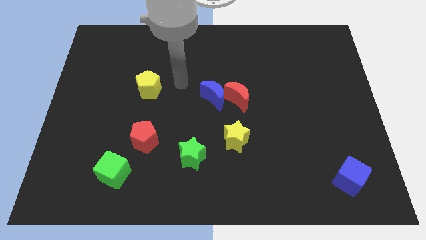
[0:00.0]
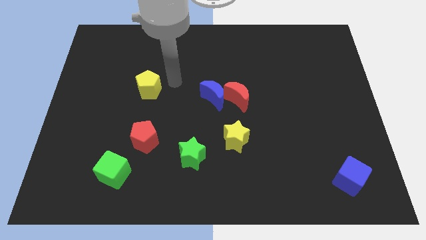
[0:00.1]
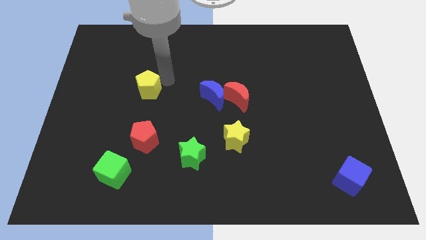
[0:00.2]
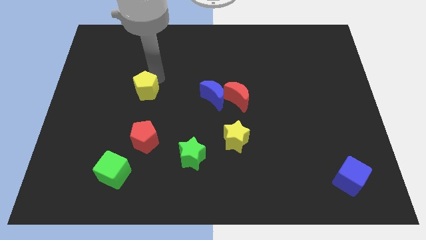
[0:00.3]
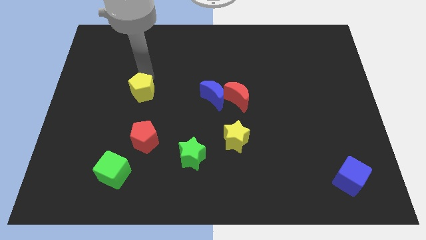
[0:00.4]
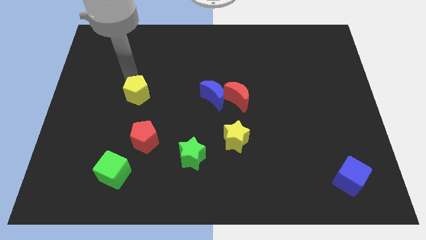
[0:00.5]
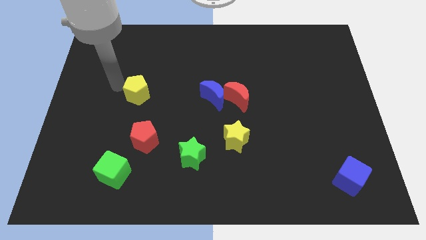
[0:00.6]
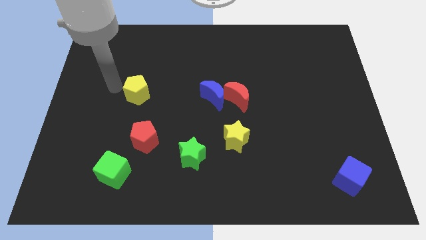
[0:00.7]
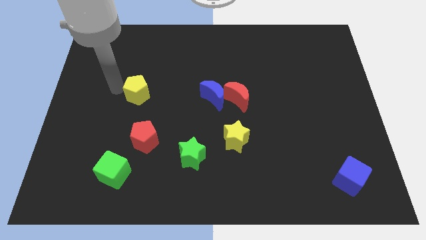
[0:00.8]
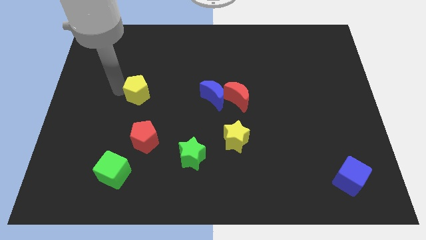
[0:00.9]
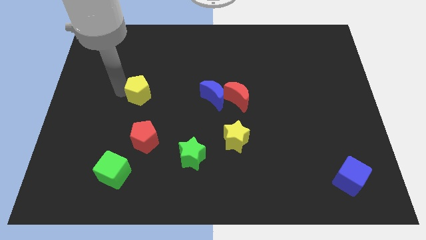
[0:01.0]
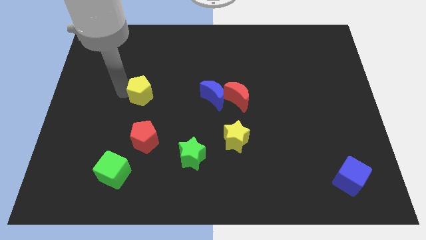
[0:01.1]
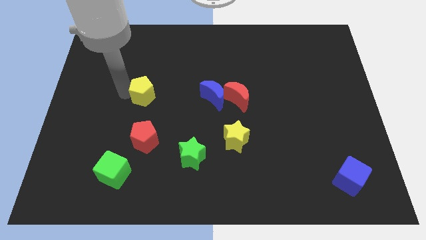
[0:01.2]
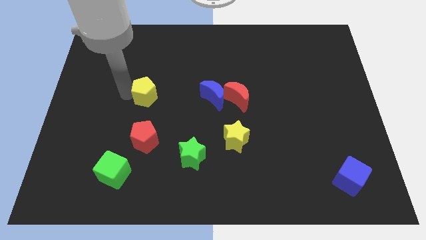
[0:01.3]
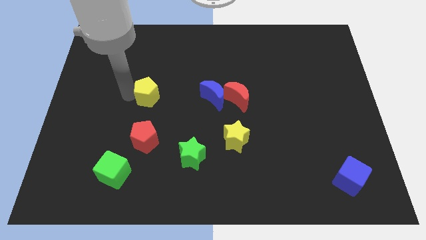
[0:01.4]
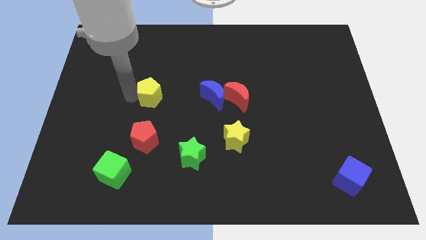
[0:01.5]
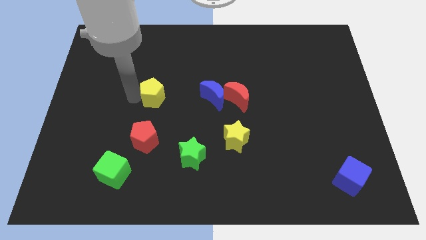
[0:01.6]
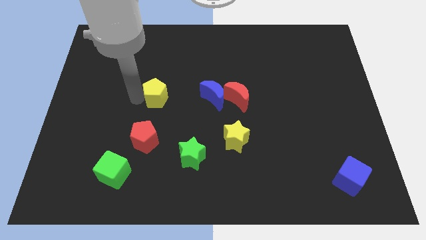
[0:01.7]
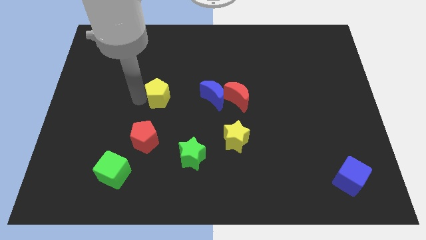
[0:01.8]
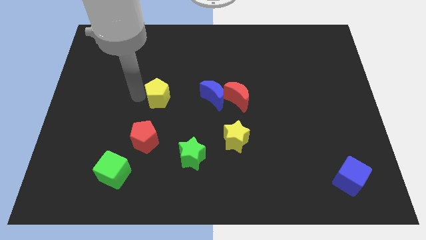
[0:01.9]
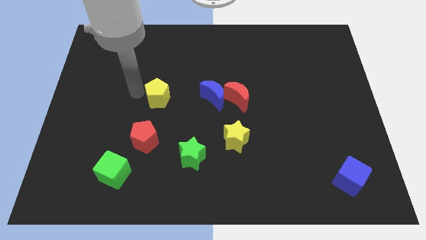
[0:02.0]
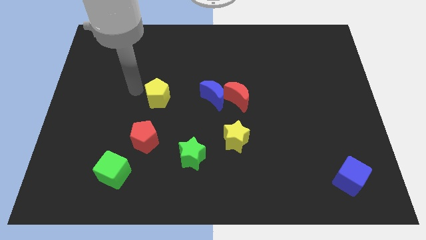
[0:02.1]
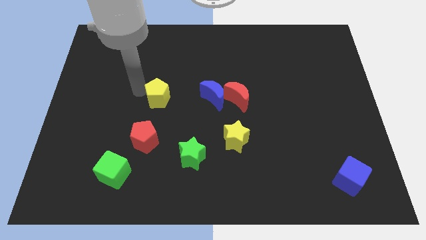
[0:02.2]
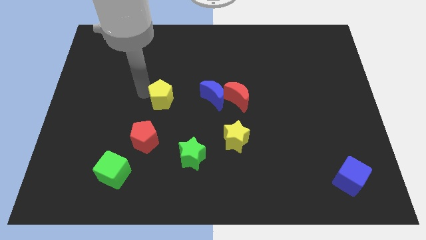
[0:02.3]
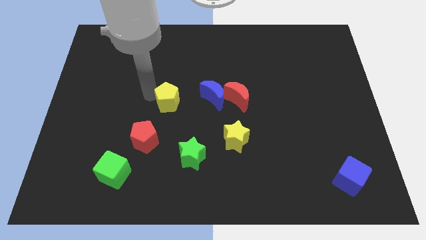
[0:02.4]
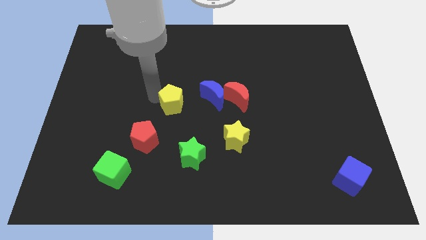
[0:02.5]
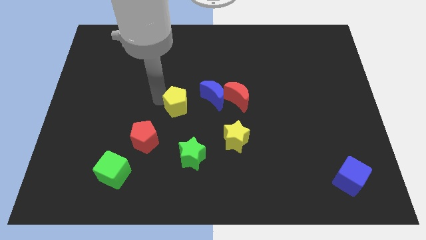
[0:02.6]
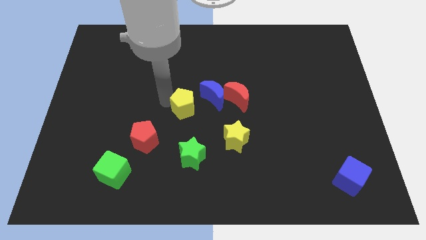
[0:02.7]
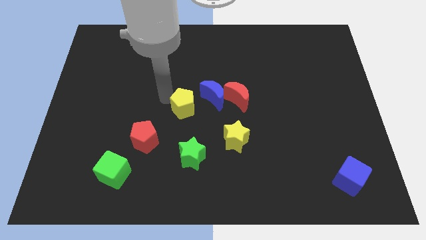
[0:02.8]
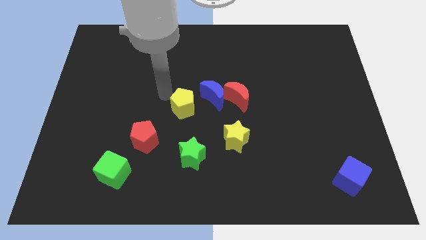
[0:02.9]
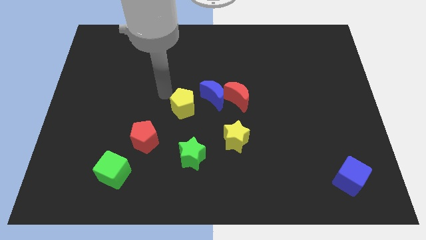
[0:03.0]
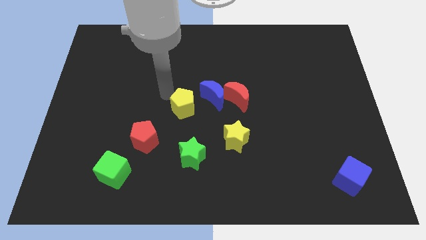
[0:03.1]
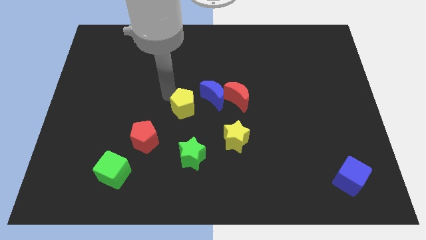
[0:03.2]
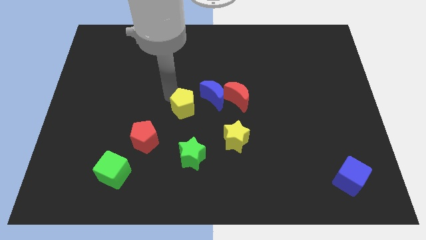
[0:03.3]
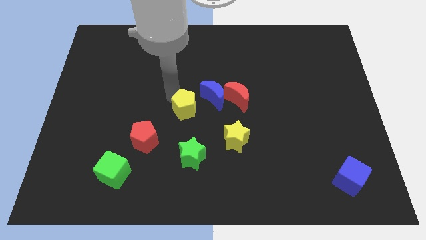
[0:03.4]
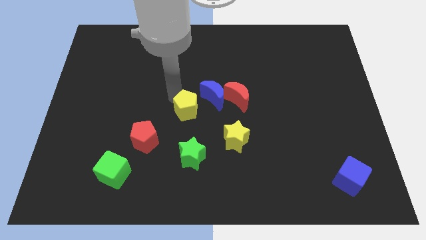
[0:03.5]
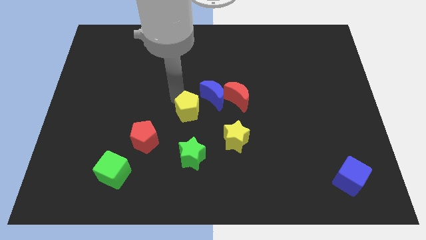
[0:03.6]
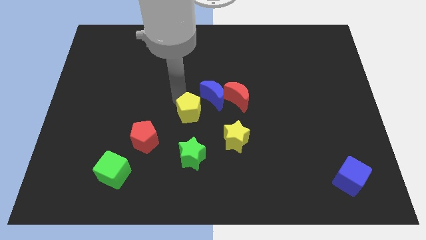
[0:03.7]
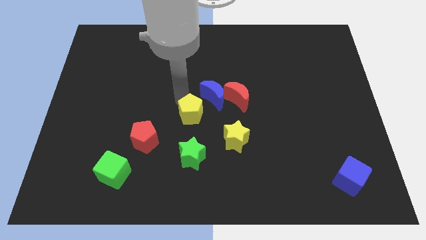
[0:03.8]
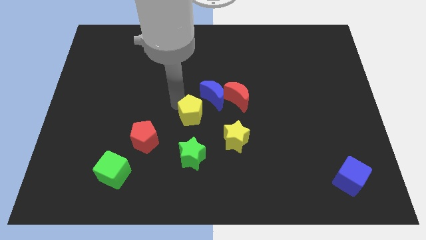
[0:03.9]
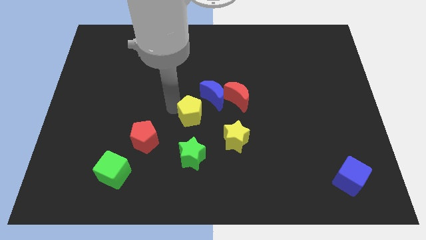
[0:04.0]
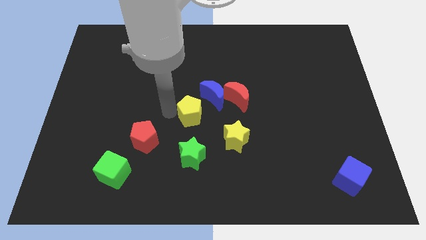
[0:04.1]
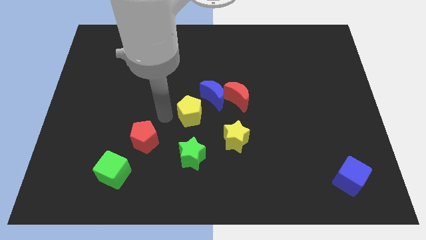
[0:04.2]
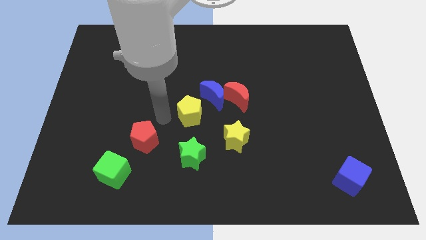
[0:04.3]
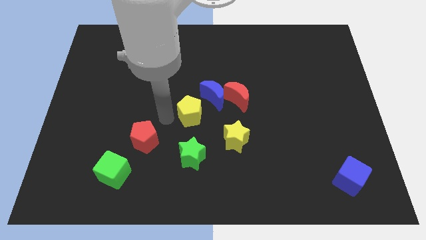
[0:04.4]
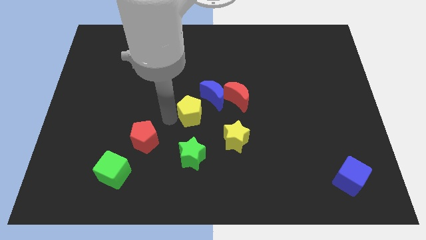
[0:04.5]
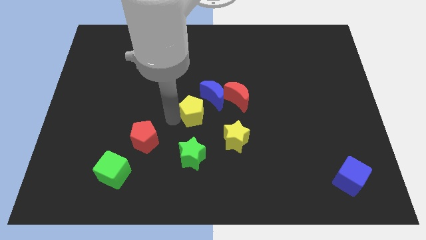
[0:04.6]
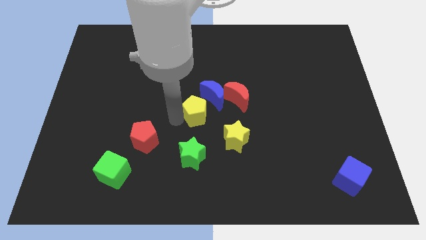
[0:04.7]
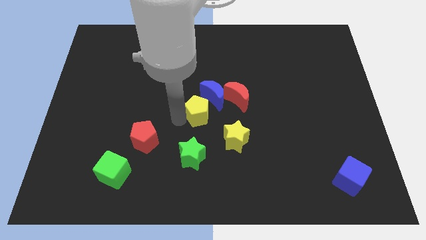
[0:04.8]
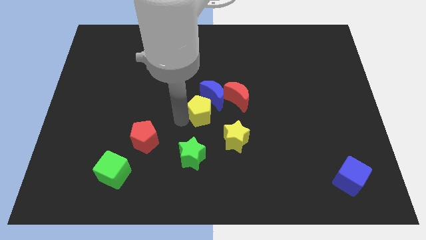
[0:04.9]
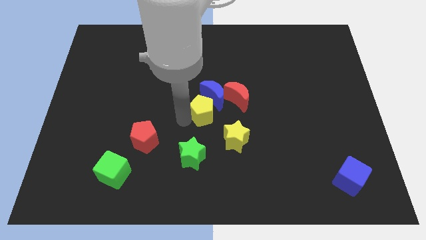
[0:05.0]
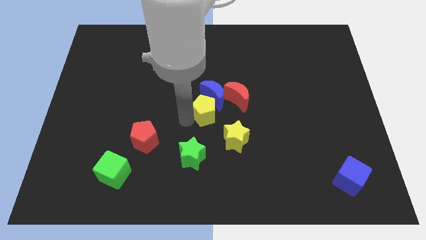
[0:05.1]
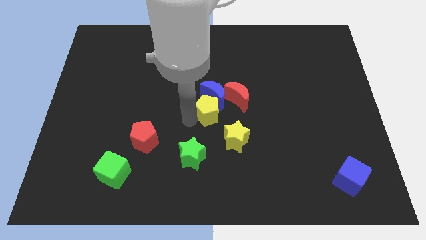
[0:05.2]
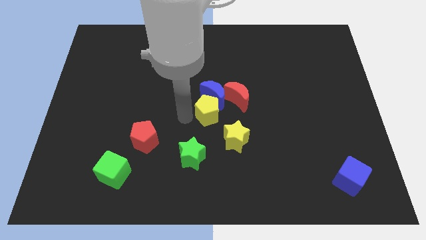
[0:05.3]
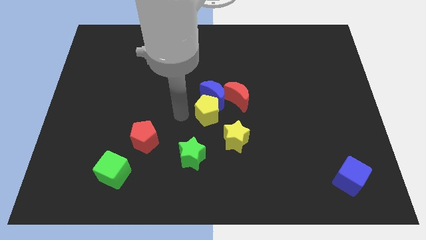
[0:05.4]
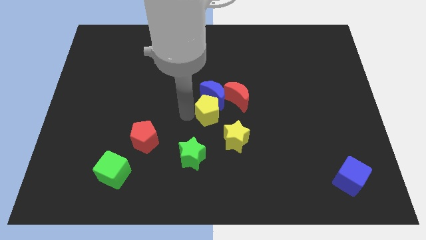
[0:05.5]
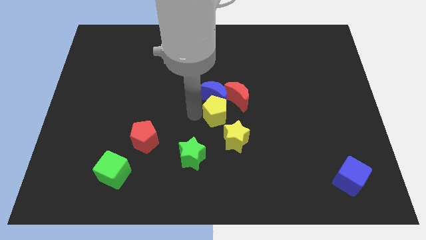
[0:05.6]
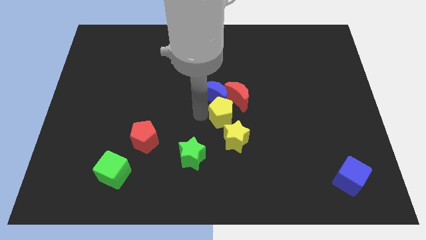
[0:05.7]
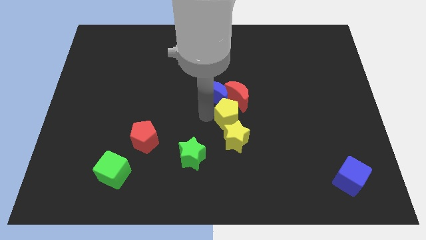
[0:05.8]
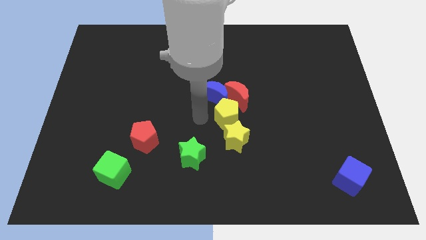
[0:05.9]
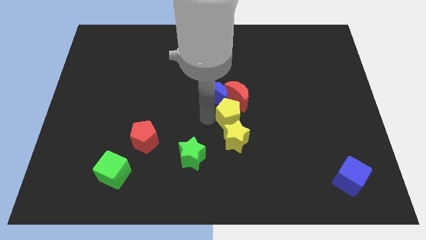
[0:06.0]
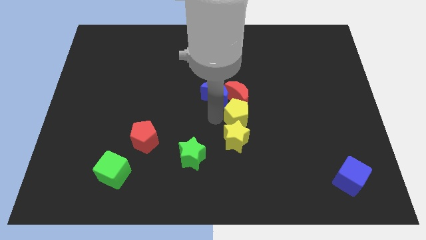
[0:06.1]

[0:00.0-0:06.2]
push the yellow pentagon to the bottom right of the red moon

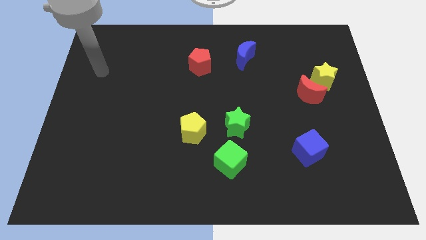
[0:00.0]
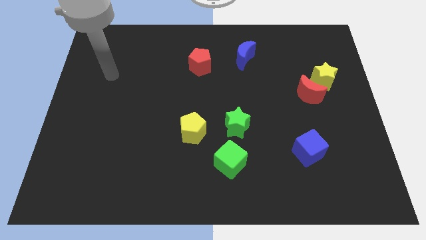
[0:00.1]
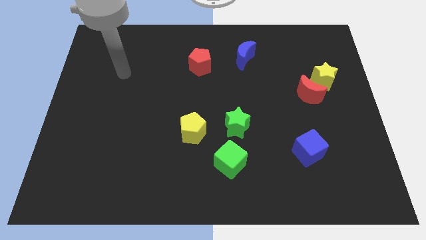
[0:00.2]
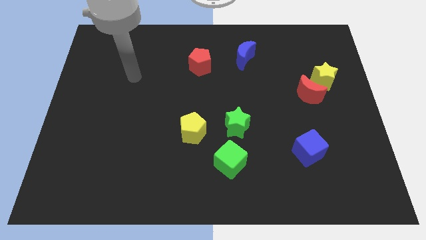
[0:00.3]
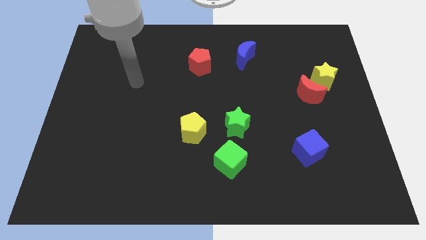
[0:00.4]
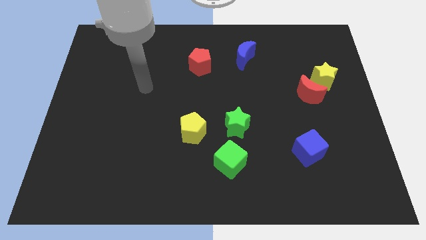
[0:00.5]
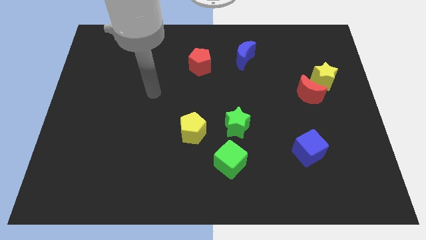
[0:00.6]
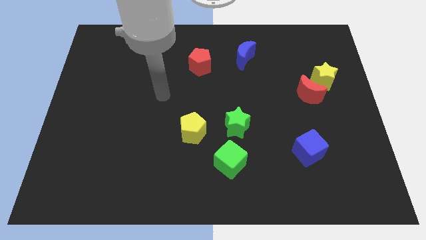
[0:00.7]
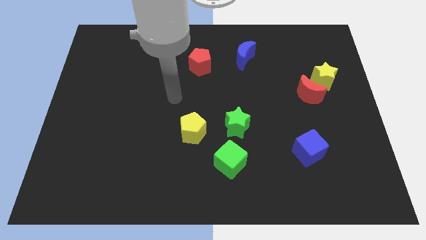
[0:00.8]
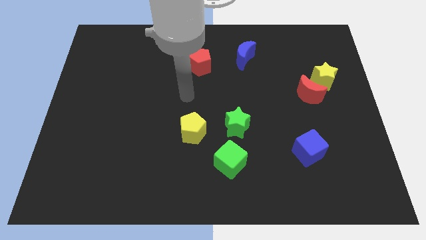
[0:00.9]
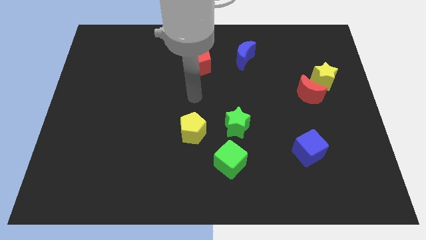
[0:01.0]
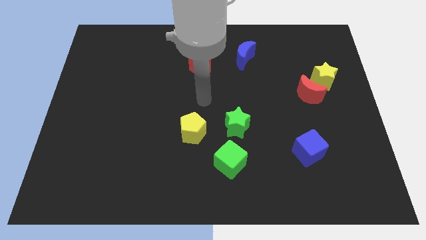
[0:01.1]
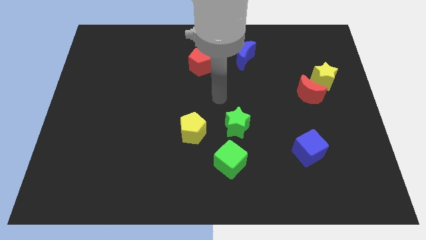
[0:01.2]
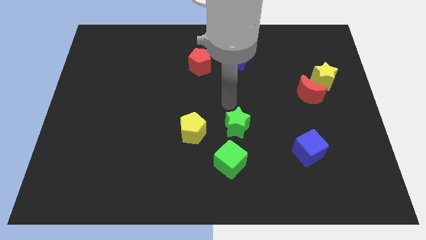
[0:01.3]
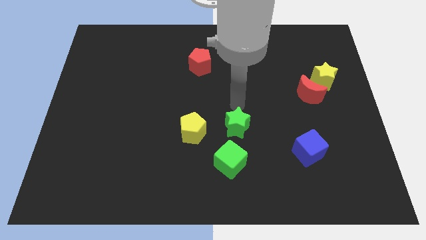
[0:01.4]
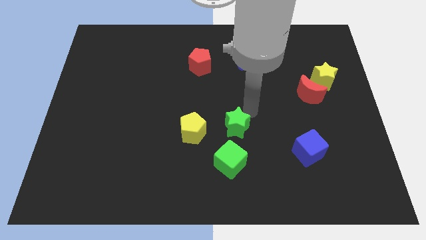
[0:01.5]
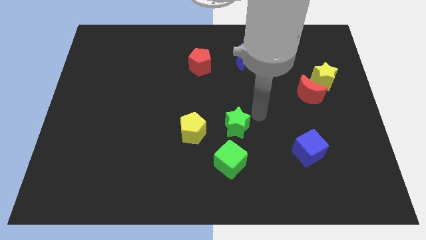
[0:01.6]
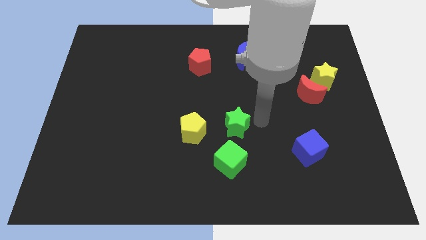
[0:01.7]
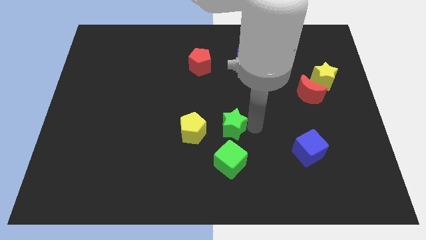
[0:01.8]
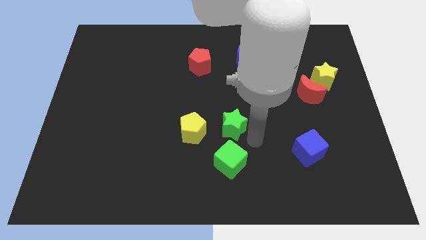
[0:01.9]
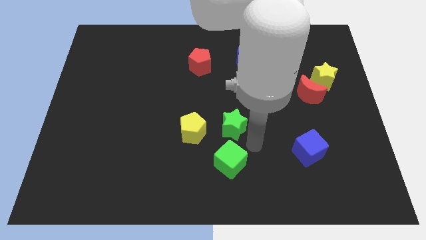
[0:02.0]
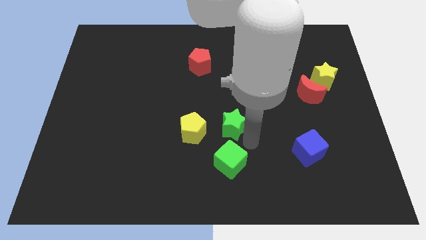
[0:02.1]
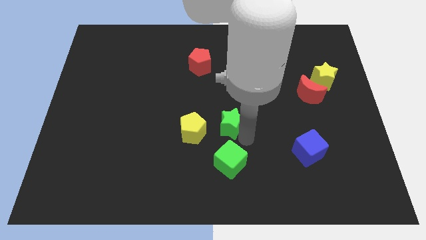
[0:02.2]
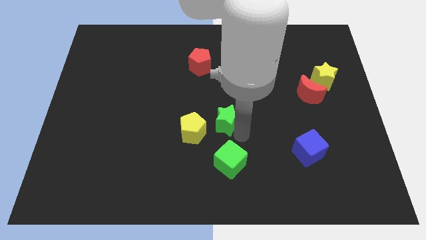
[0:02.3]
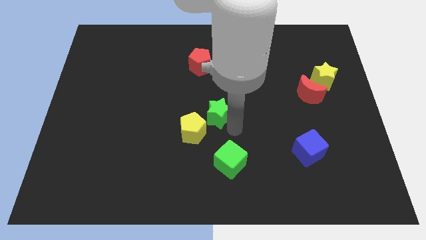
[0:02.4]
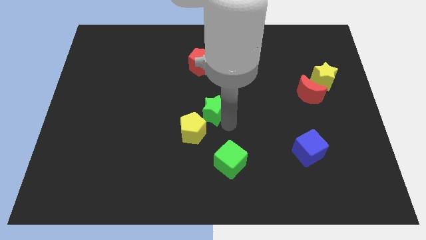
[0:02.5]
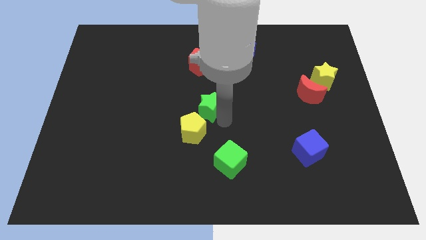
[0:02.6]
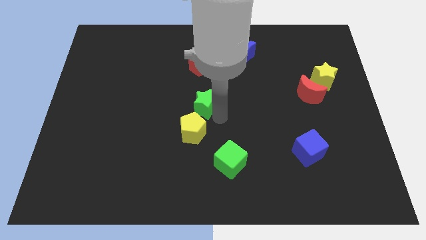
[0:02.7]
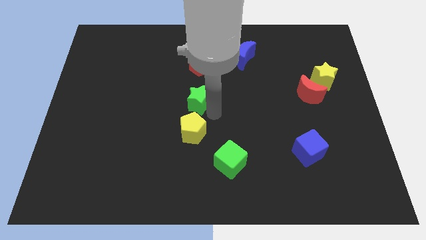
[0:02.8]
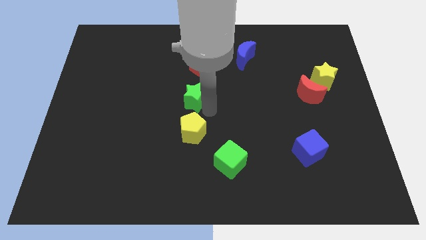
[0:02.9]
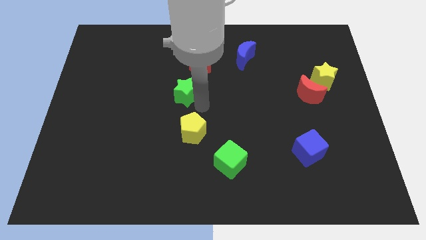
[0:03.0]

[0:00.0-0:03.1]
put the green star to the bottom left of the red pentagon
